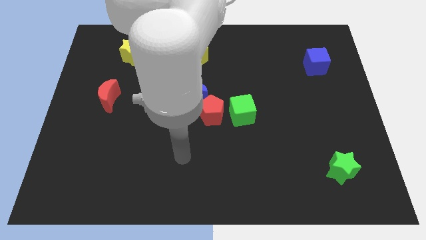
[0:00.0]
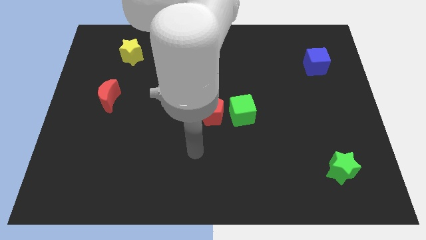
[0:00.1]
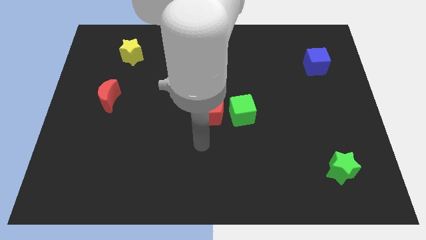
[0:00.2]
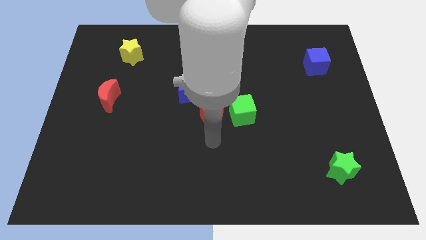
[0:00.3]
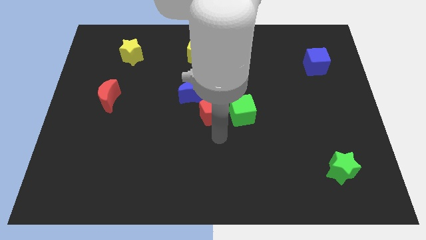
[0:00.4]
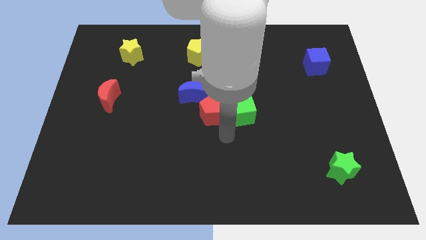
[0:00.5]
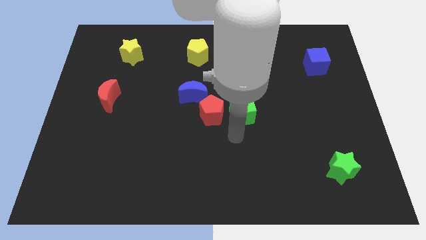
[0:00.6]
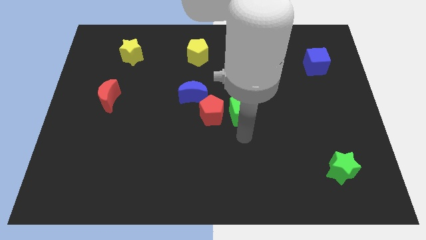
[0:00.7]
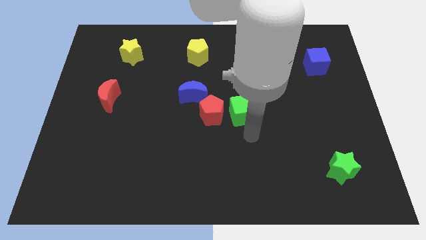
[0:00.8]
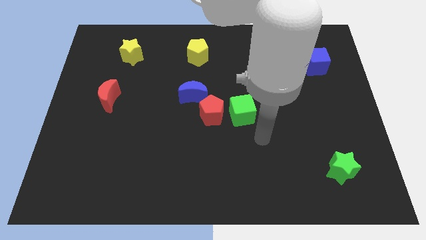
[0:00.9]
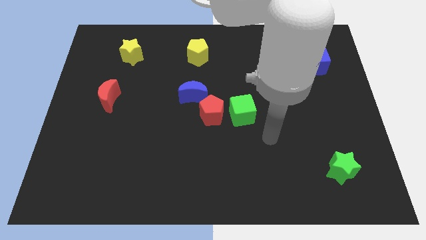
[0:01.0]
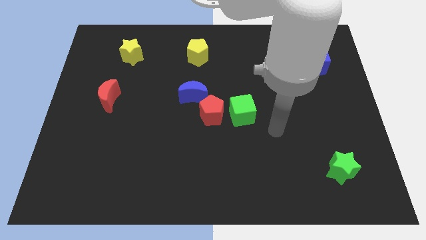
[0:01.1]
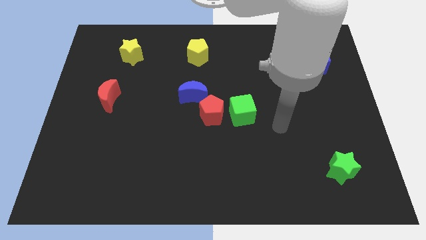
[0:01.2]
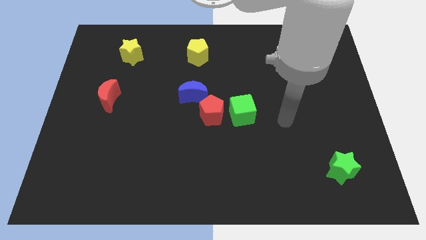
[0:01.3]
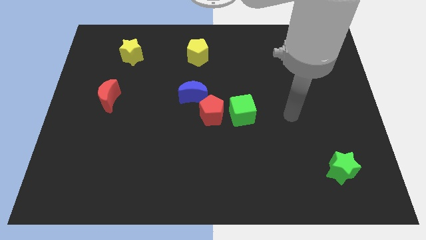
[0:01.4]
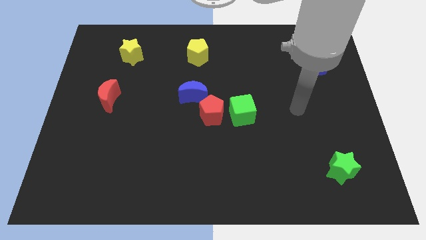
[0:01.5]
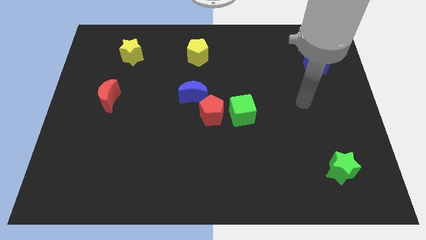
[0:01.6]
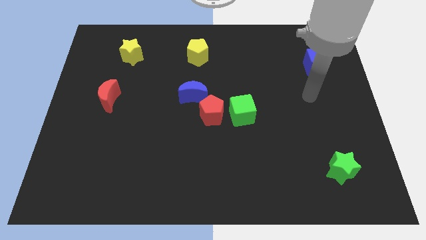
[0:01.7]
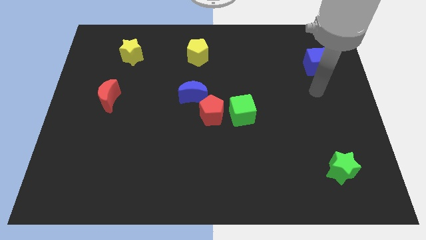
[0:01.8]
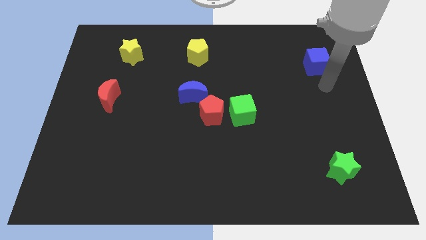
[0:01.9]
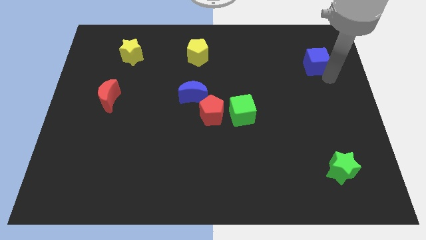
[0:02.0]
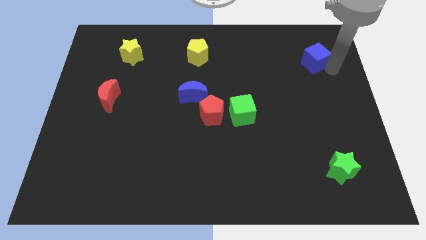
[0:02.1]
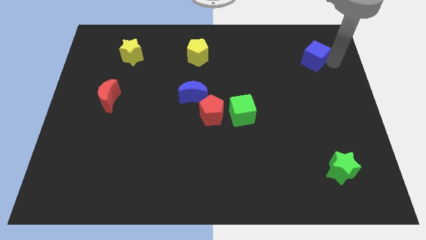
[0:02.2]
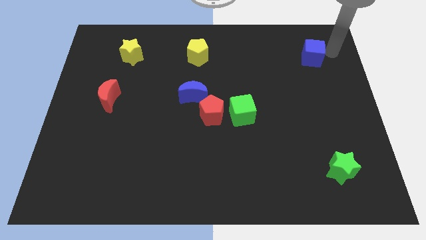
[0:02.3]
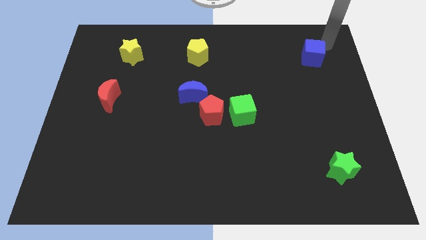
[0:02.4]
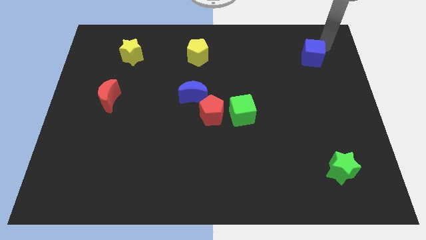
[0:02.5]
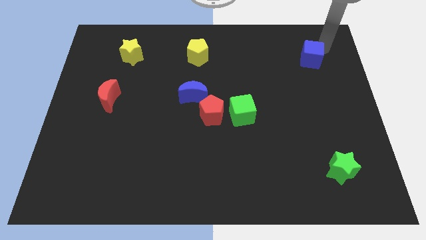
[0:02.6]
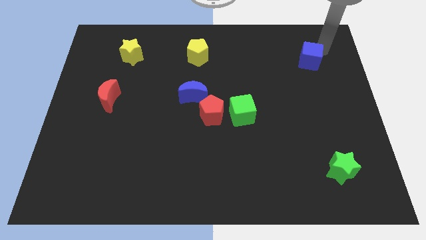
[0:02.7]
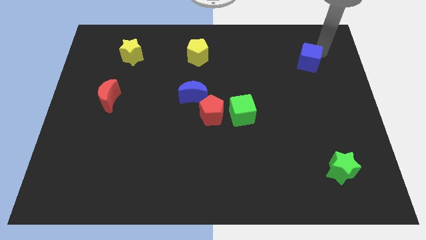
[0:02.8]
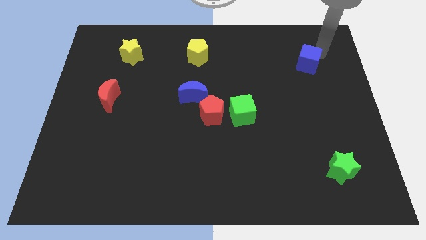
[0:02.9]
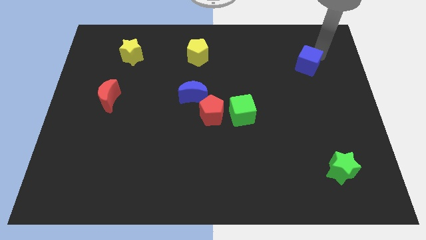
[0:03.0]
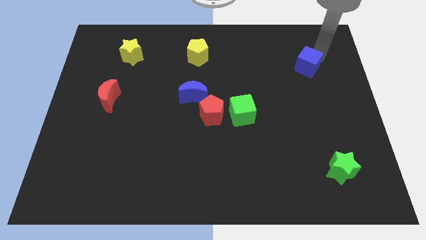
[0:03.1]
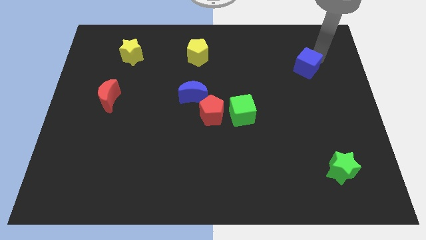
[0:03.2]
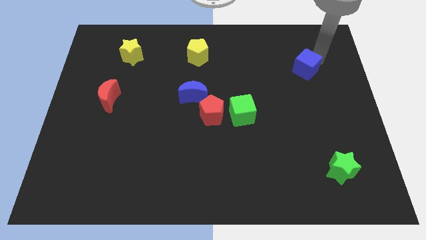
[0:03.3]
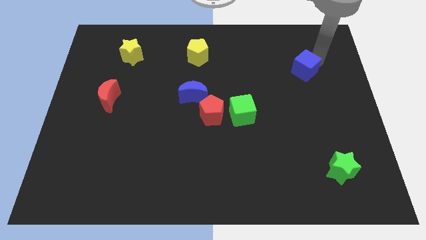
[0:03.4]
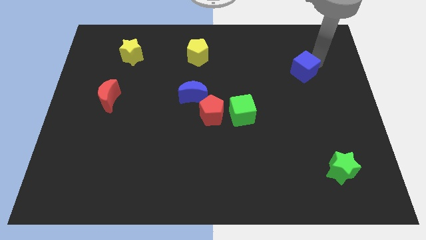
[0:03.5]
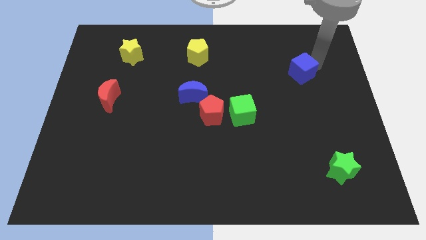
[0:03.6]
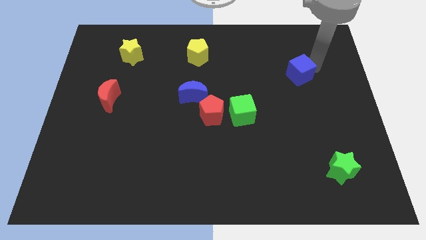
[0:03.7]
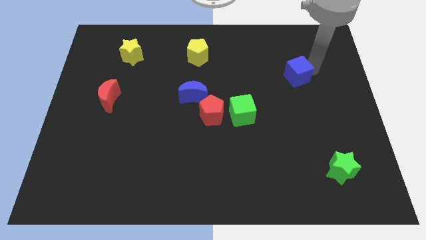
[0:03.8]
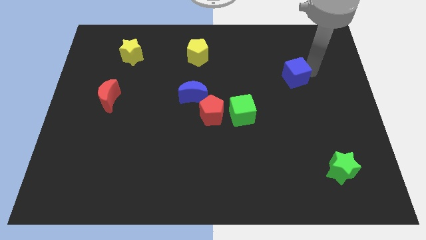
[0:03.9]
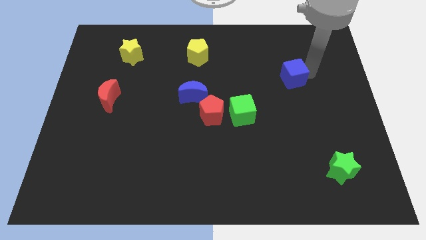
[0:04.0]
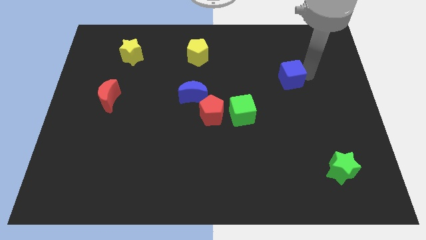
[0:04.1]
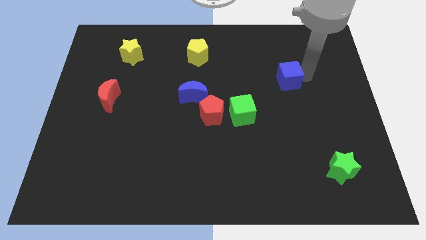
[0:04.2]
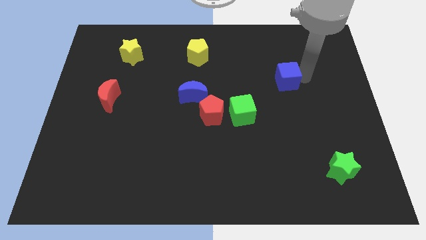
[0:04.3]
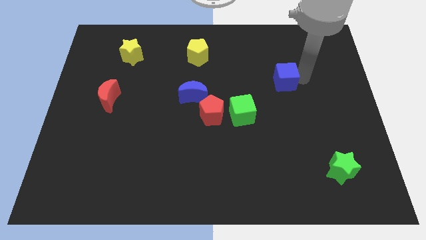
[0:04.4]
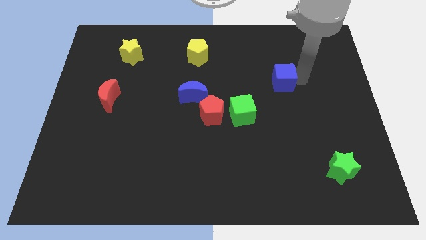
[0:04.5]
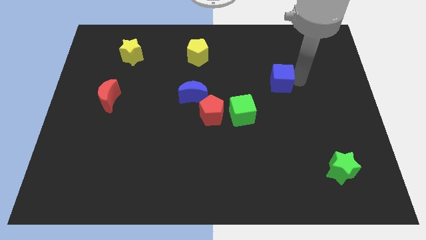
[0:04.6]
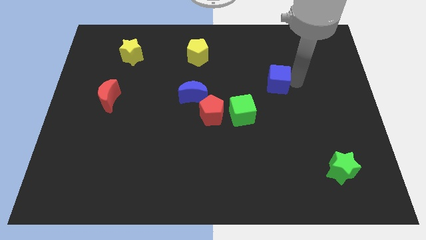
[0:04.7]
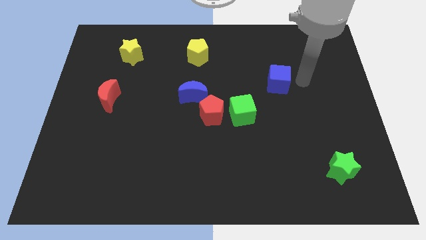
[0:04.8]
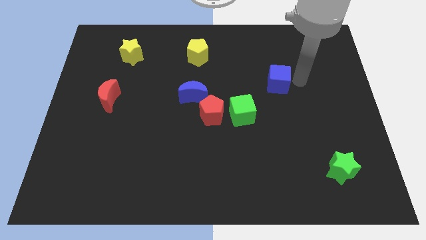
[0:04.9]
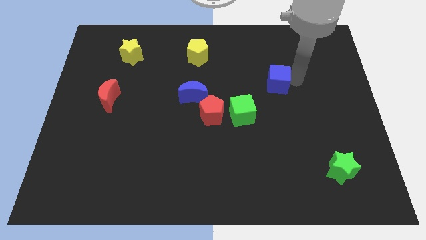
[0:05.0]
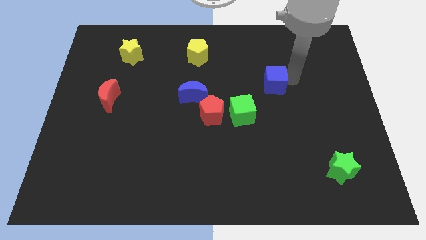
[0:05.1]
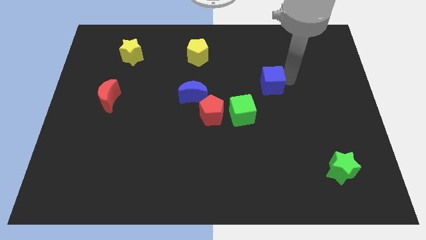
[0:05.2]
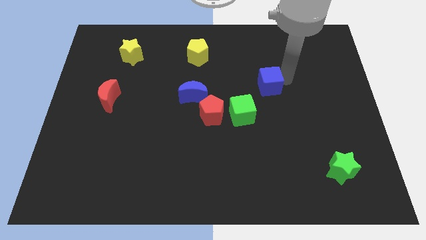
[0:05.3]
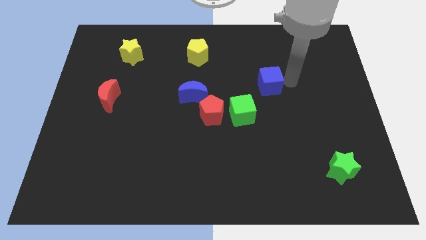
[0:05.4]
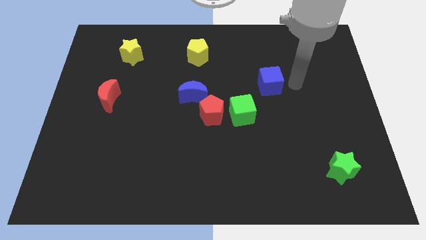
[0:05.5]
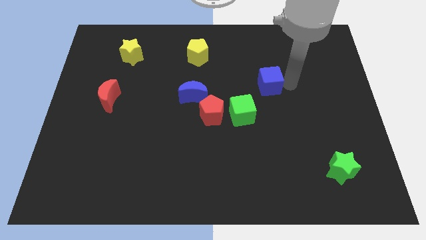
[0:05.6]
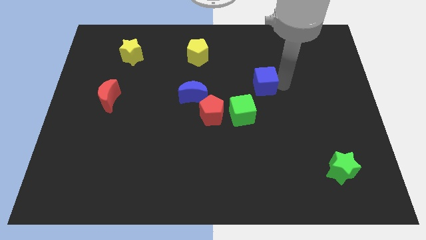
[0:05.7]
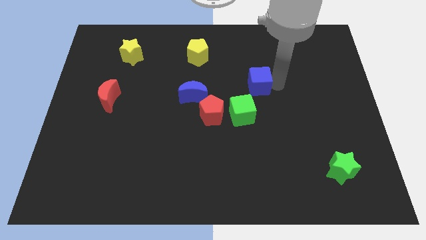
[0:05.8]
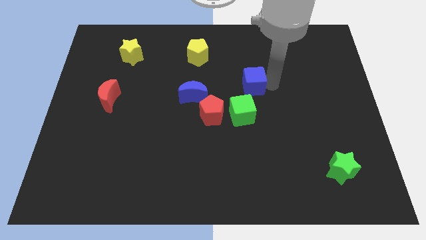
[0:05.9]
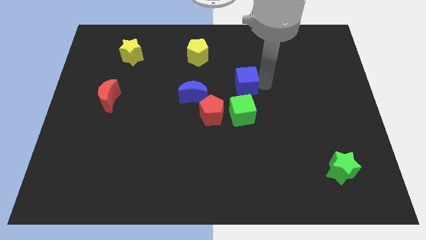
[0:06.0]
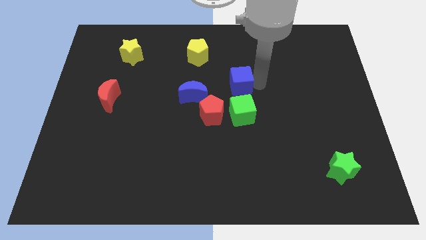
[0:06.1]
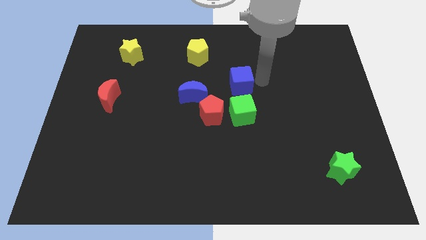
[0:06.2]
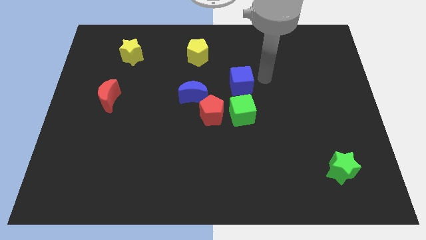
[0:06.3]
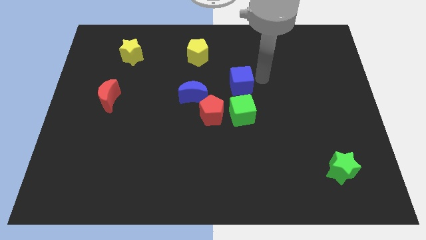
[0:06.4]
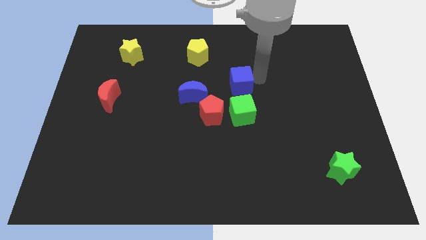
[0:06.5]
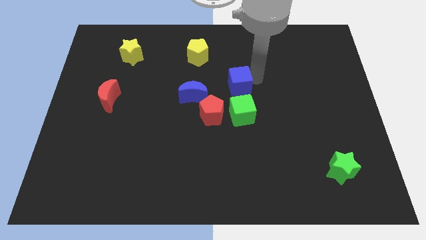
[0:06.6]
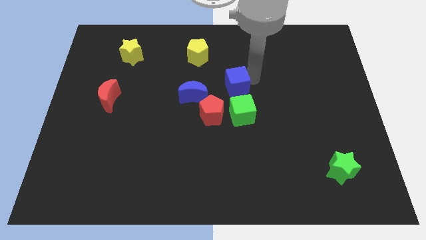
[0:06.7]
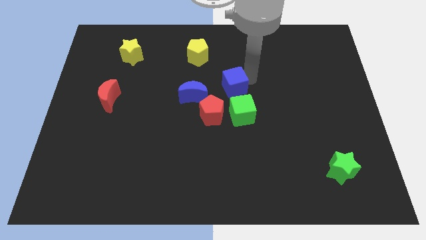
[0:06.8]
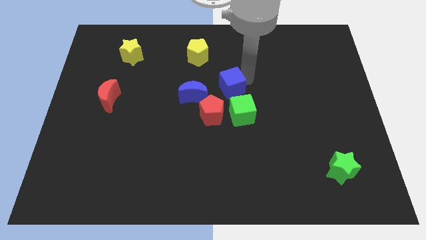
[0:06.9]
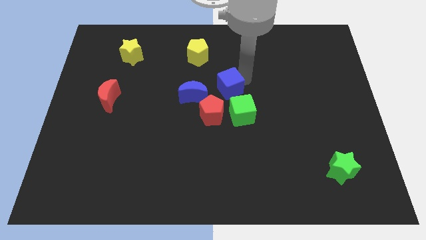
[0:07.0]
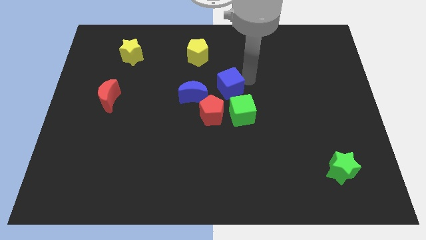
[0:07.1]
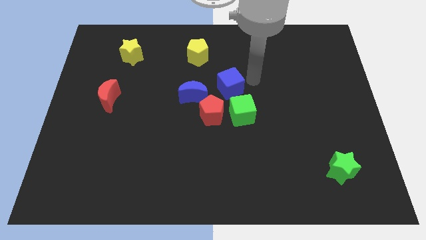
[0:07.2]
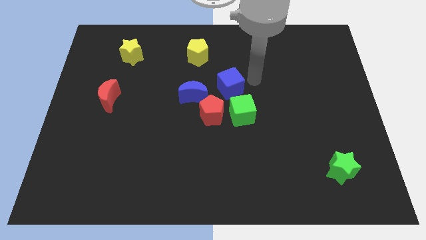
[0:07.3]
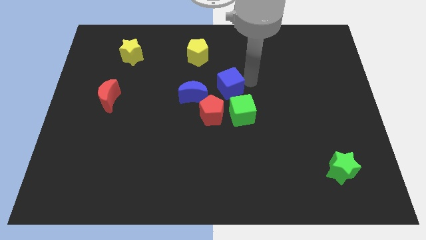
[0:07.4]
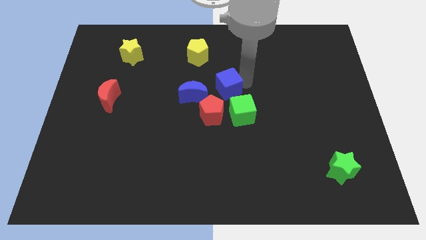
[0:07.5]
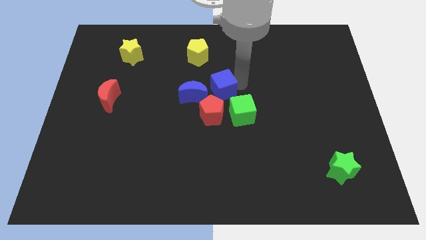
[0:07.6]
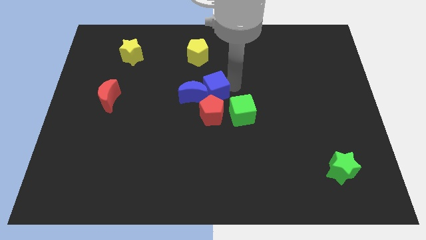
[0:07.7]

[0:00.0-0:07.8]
push the blue cube next to the blue moon
